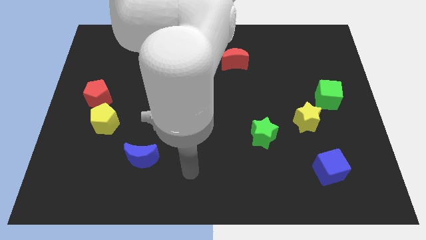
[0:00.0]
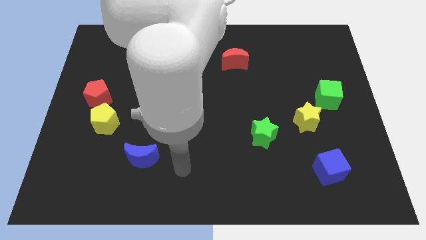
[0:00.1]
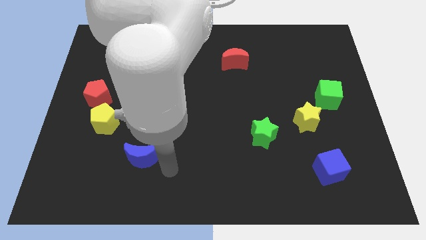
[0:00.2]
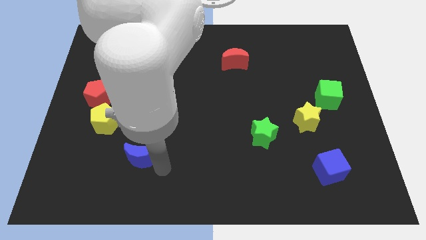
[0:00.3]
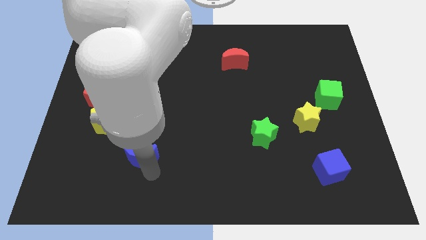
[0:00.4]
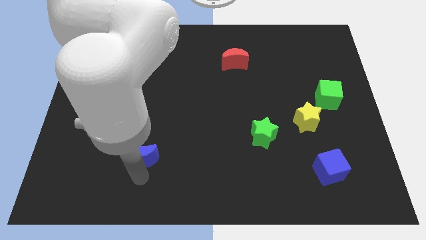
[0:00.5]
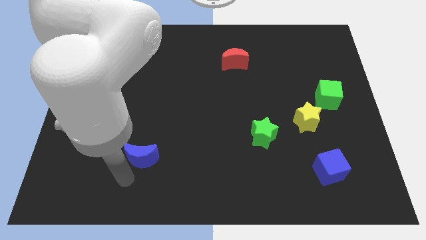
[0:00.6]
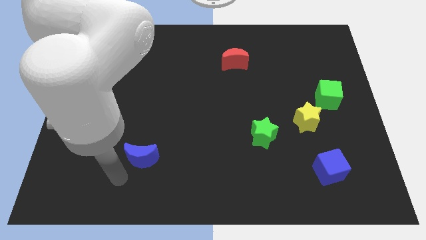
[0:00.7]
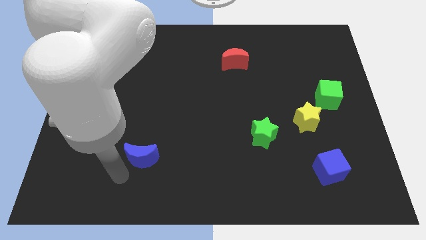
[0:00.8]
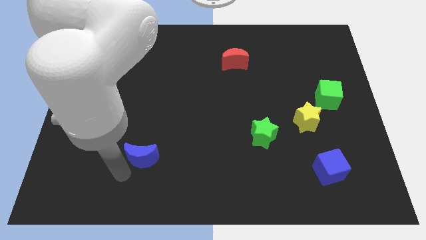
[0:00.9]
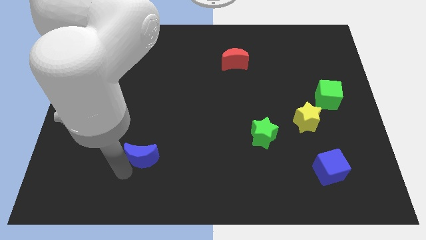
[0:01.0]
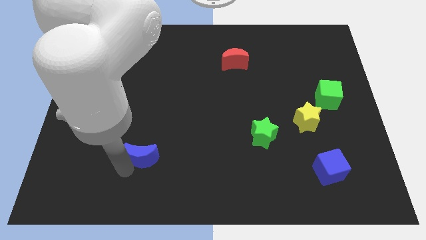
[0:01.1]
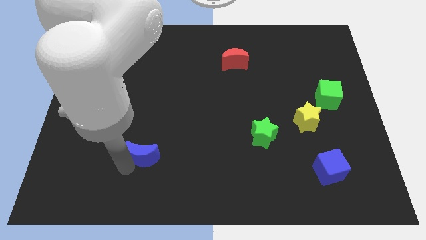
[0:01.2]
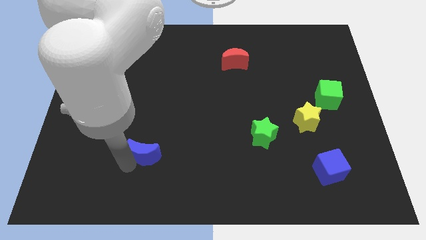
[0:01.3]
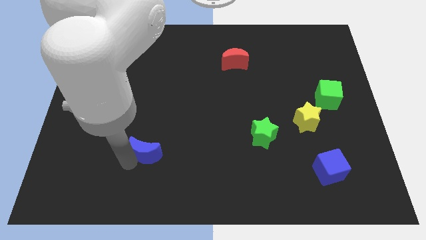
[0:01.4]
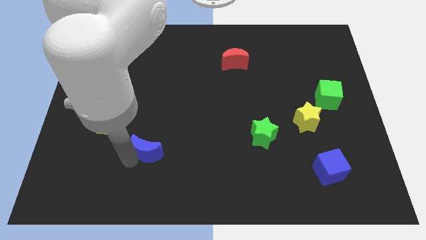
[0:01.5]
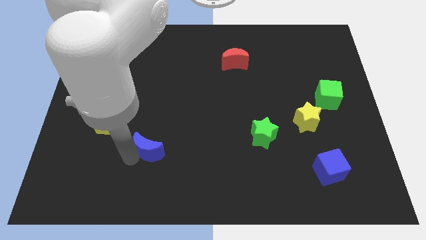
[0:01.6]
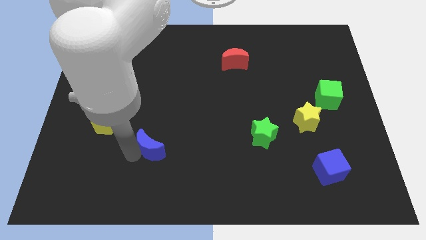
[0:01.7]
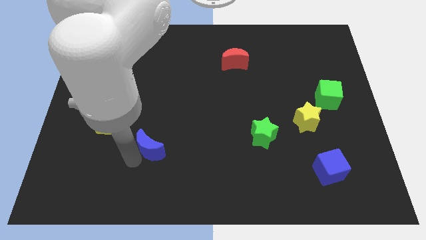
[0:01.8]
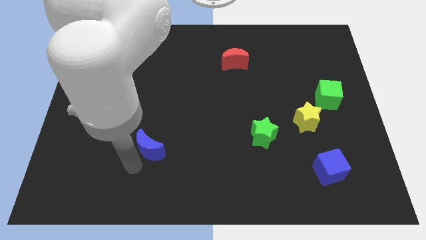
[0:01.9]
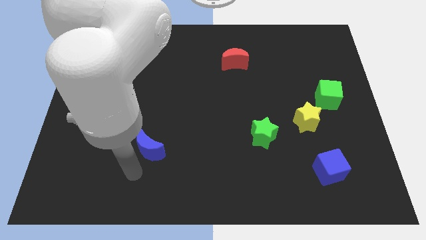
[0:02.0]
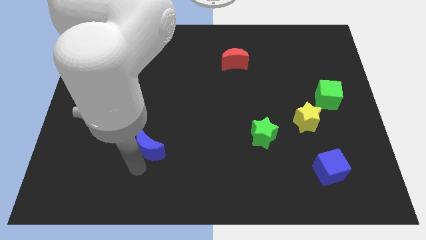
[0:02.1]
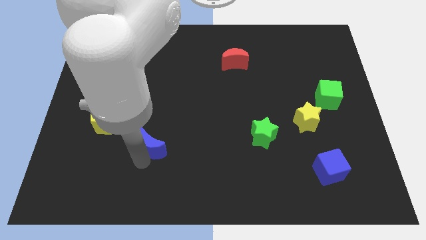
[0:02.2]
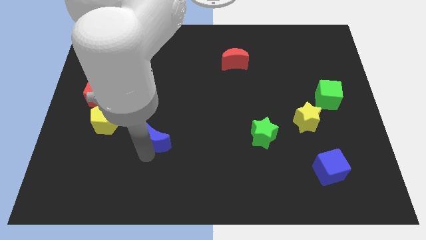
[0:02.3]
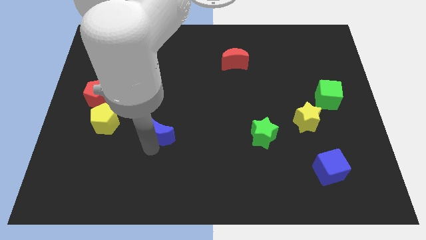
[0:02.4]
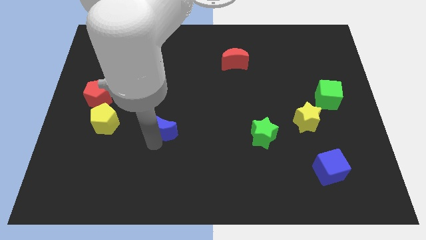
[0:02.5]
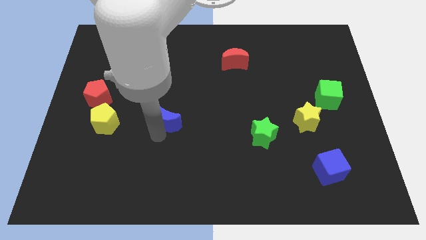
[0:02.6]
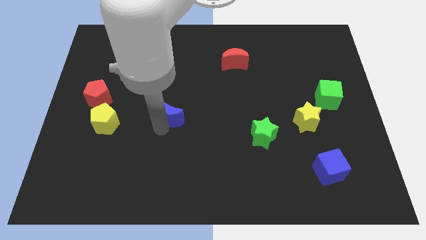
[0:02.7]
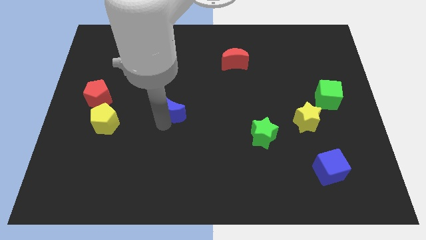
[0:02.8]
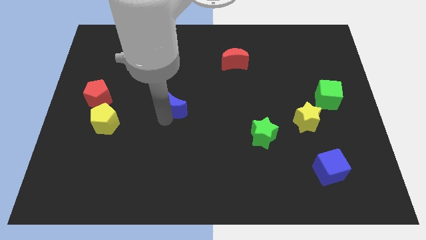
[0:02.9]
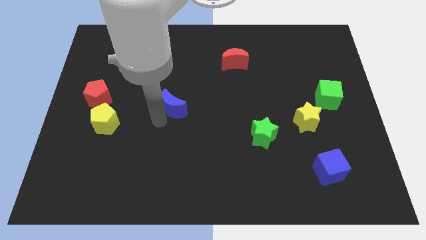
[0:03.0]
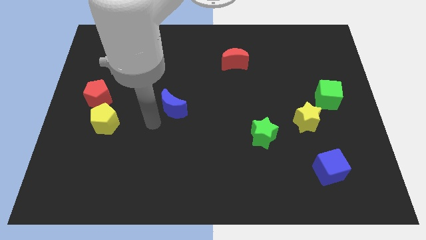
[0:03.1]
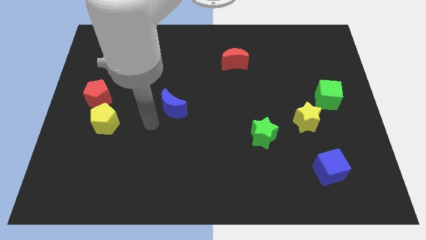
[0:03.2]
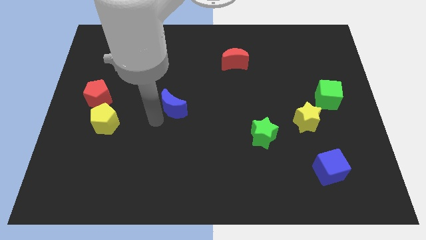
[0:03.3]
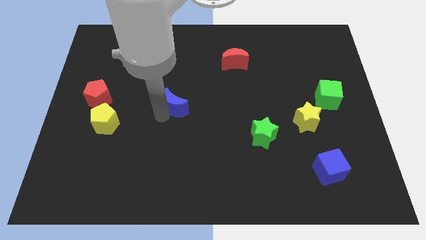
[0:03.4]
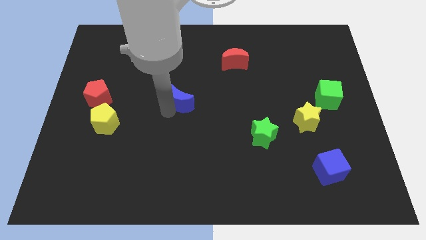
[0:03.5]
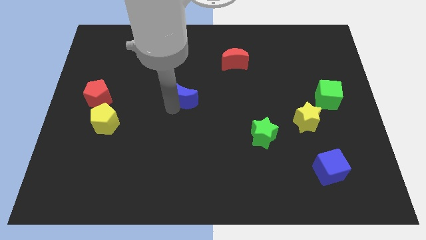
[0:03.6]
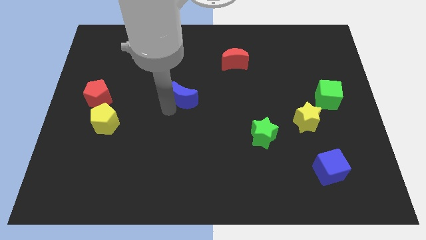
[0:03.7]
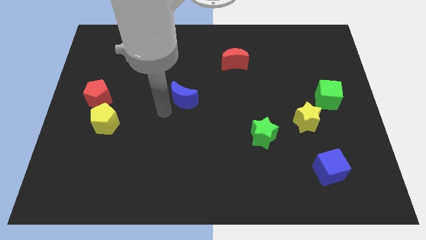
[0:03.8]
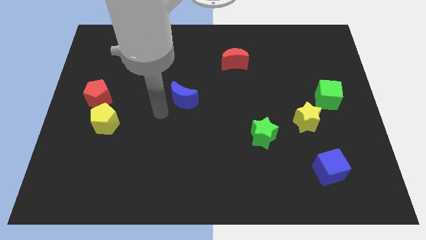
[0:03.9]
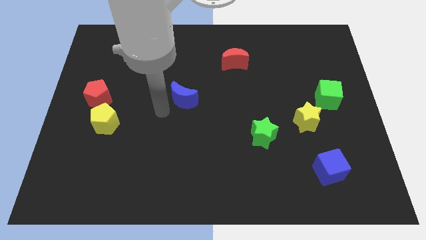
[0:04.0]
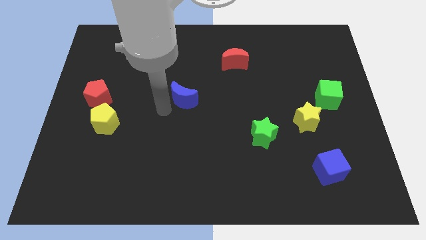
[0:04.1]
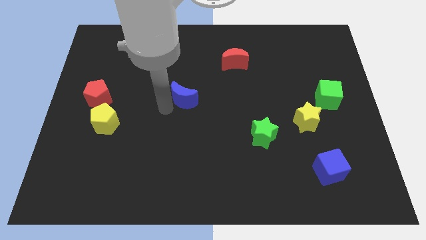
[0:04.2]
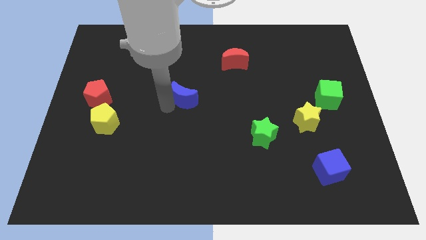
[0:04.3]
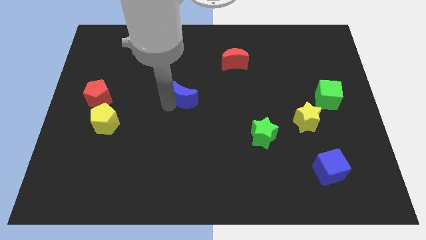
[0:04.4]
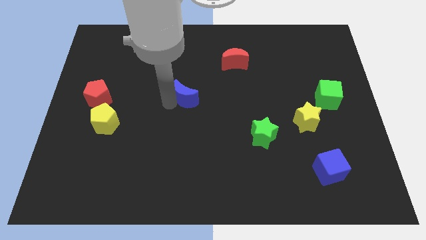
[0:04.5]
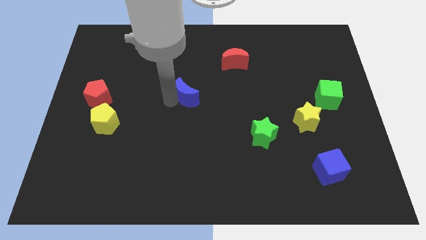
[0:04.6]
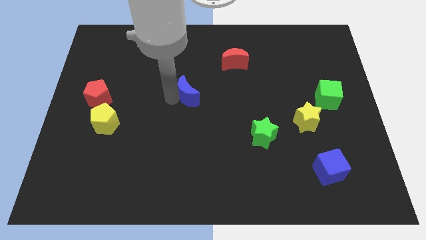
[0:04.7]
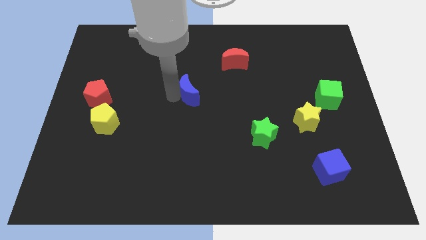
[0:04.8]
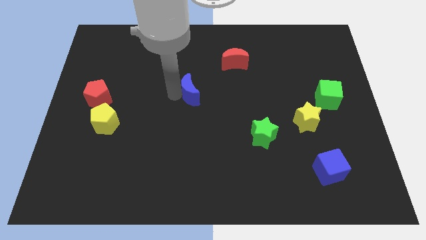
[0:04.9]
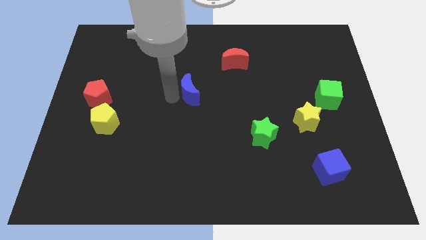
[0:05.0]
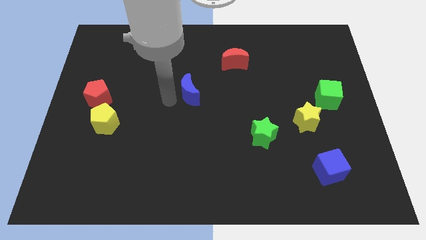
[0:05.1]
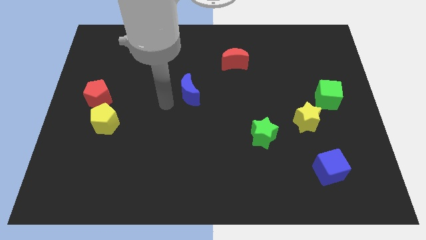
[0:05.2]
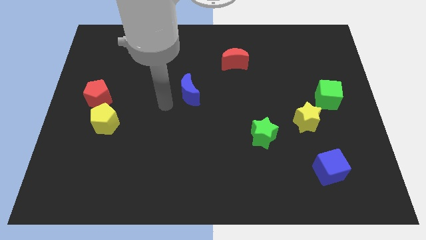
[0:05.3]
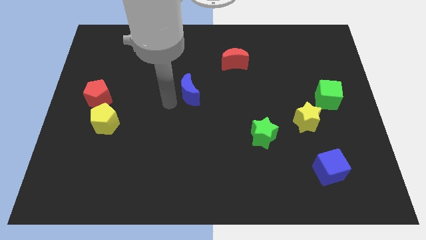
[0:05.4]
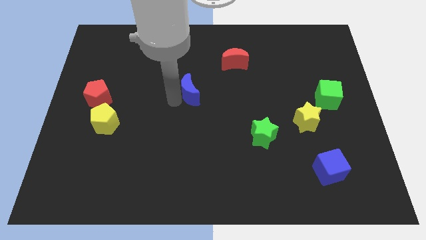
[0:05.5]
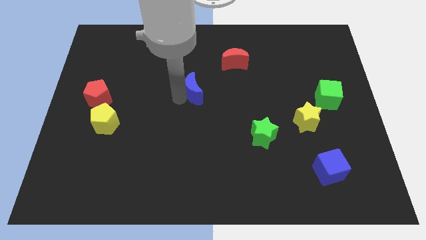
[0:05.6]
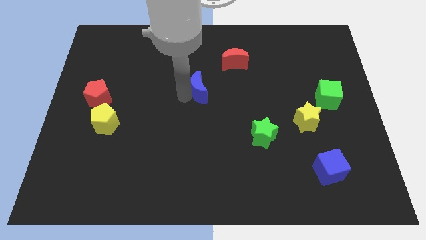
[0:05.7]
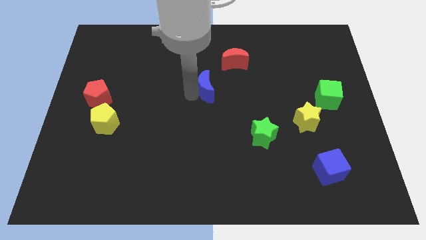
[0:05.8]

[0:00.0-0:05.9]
push the blue moon to the bottom left of the red moon

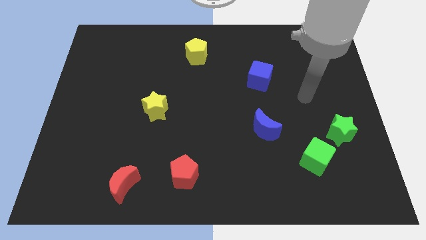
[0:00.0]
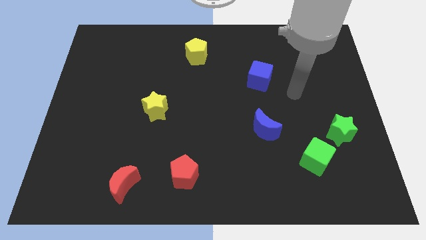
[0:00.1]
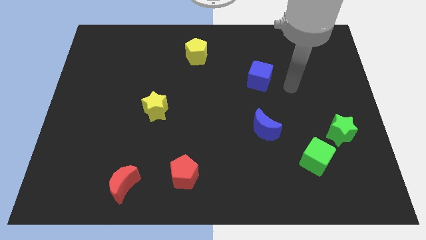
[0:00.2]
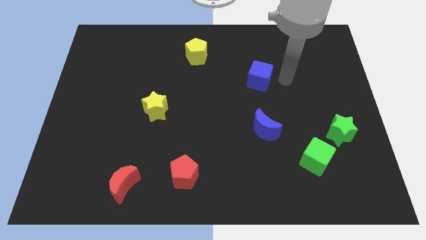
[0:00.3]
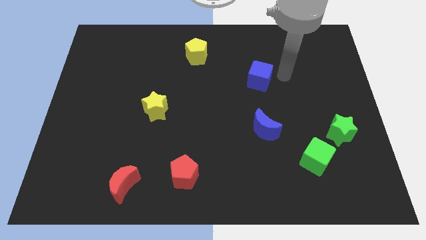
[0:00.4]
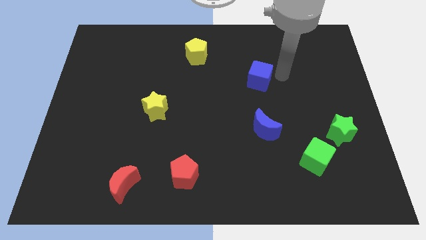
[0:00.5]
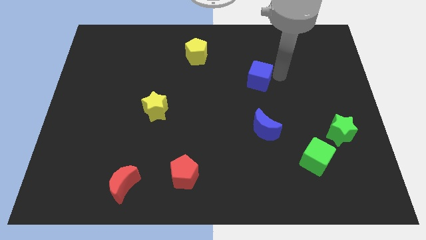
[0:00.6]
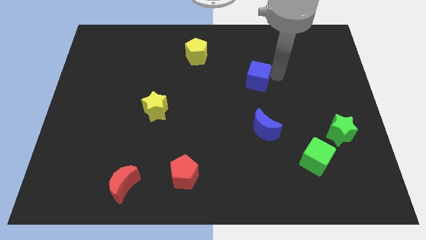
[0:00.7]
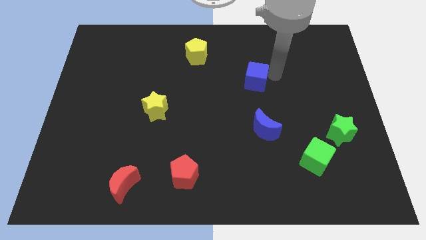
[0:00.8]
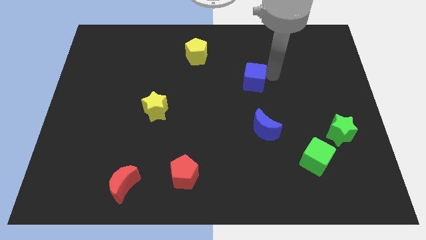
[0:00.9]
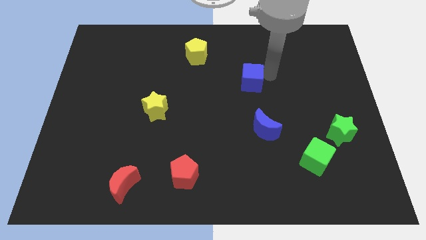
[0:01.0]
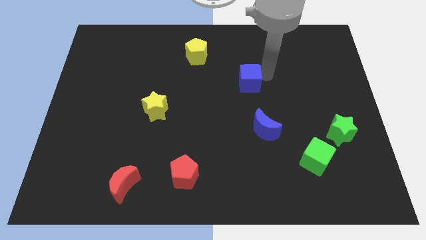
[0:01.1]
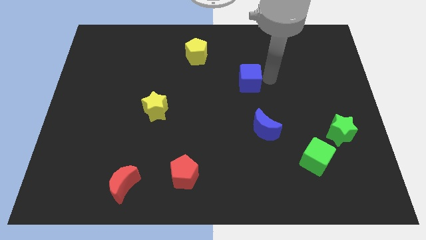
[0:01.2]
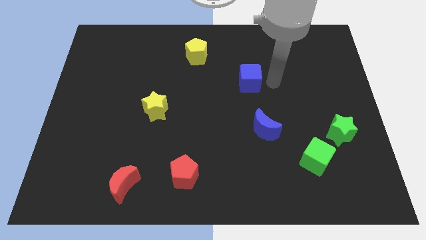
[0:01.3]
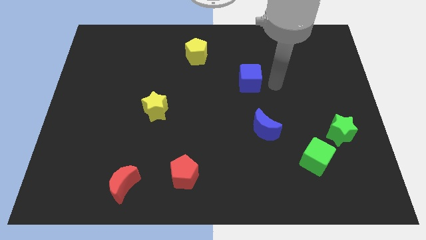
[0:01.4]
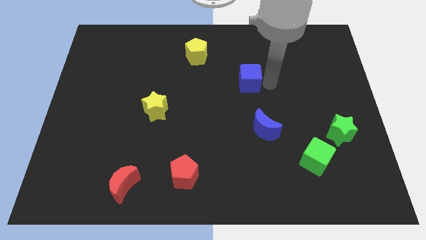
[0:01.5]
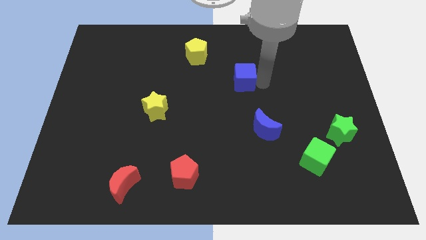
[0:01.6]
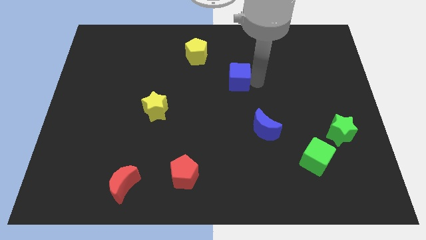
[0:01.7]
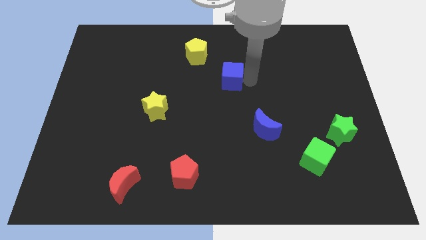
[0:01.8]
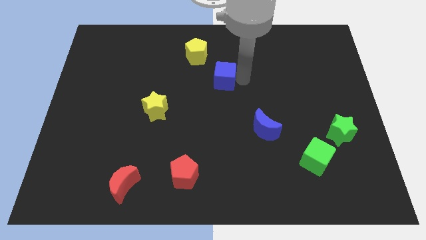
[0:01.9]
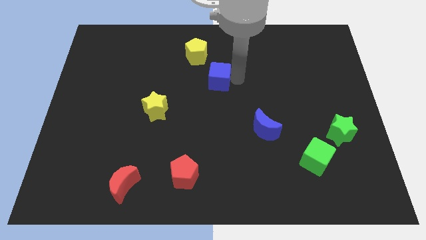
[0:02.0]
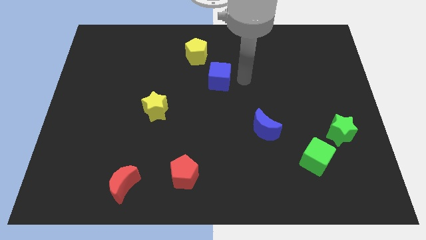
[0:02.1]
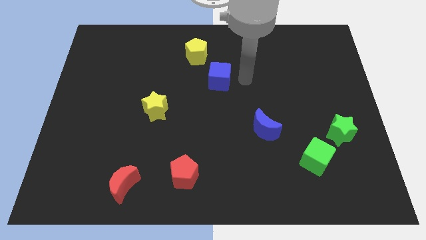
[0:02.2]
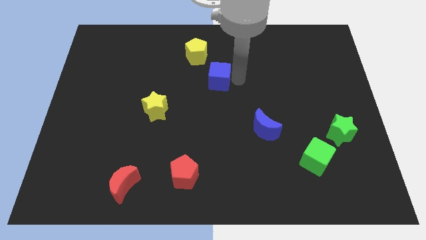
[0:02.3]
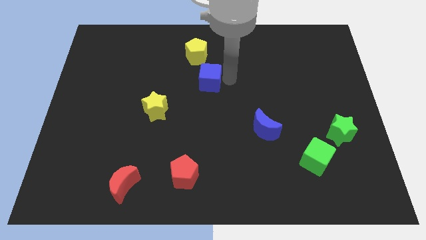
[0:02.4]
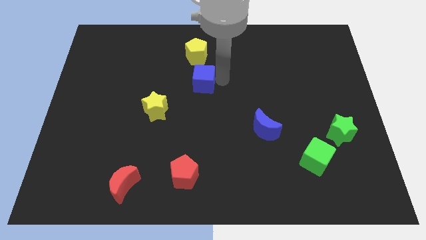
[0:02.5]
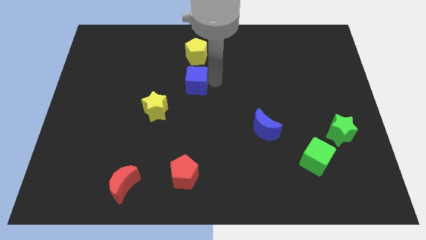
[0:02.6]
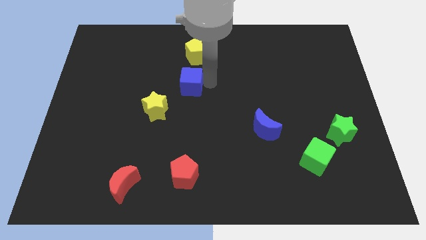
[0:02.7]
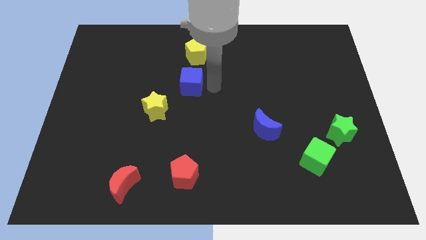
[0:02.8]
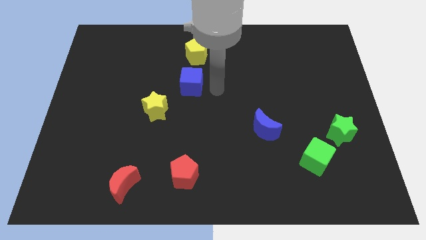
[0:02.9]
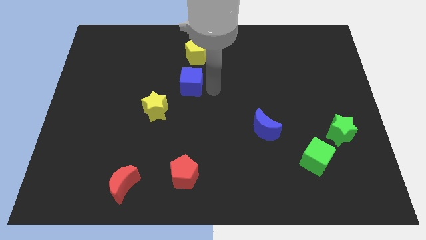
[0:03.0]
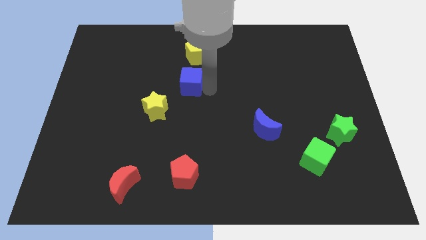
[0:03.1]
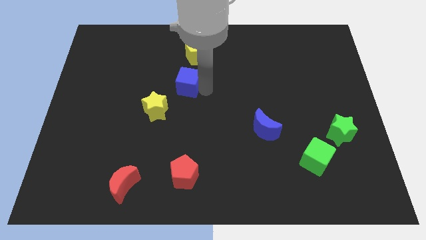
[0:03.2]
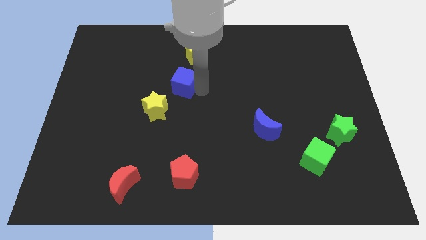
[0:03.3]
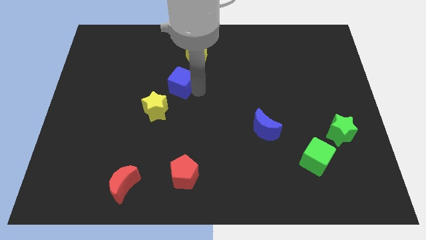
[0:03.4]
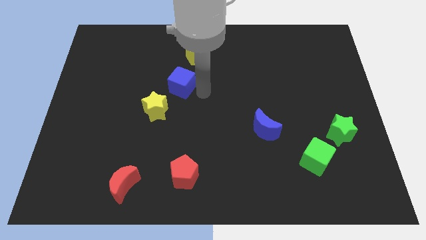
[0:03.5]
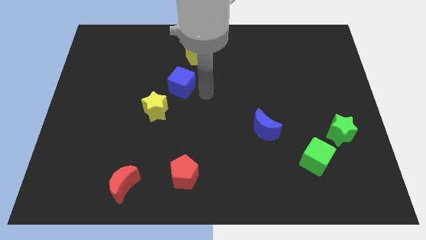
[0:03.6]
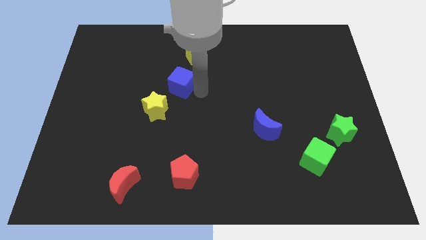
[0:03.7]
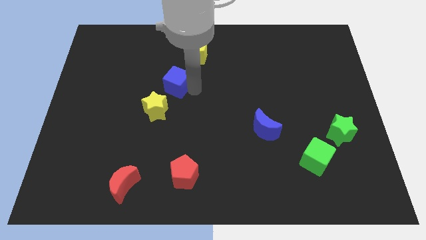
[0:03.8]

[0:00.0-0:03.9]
push the blue cube above the yellow star
